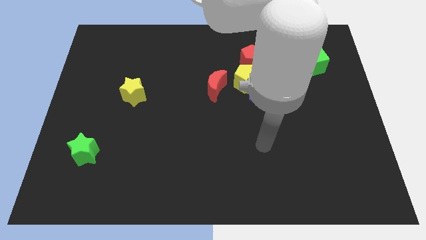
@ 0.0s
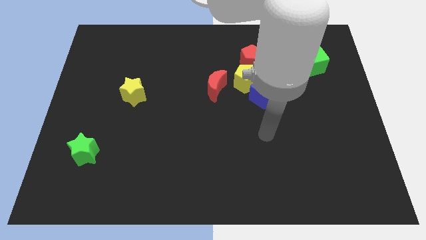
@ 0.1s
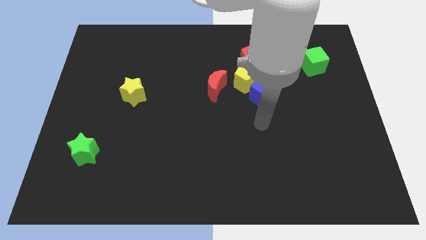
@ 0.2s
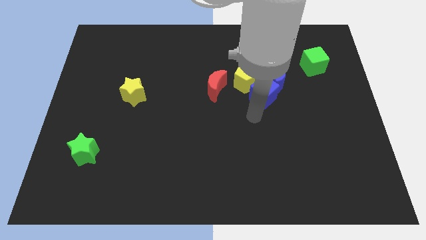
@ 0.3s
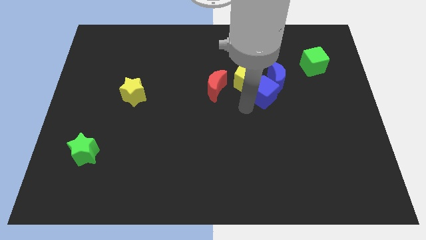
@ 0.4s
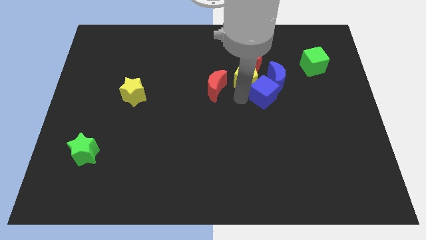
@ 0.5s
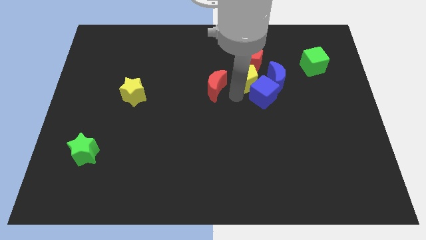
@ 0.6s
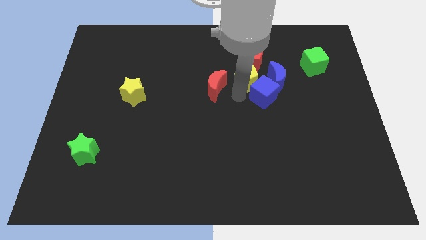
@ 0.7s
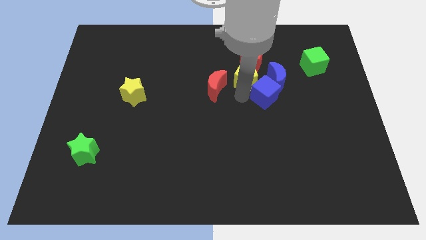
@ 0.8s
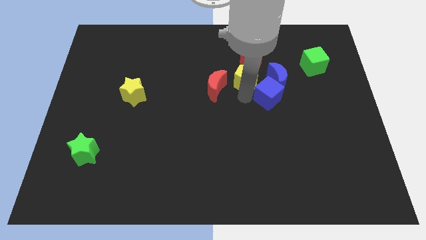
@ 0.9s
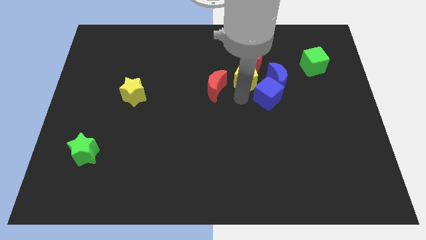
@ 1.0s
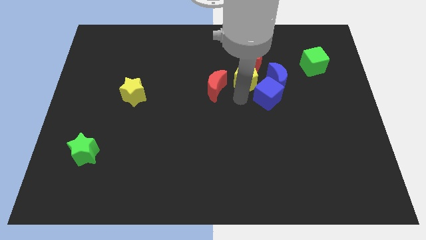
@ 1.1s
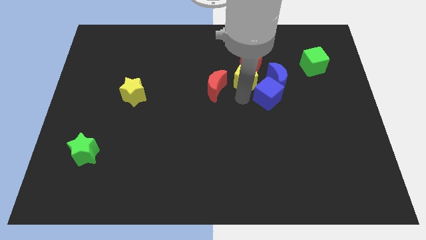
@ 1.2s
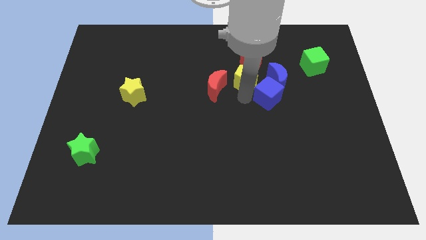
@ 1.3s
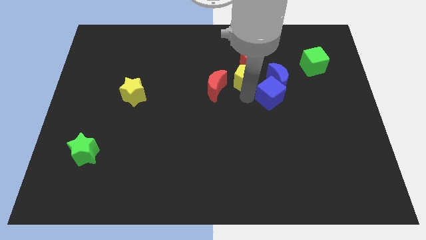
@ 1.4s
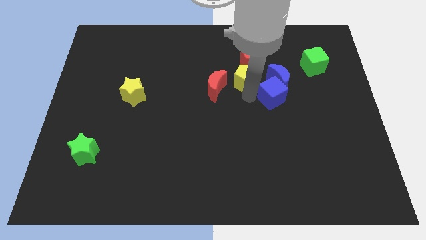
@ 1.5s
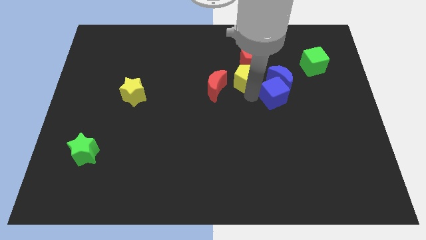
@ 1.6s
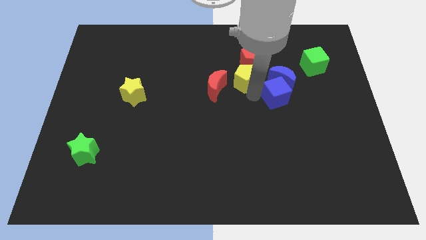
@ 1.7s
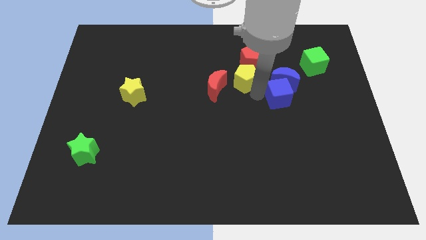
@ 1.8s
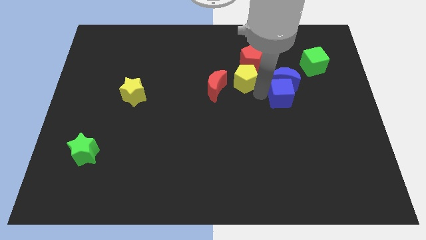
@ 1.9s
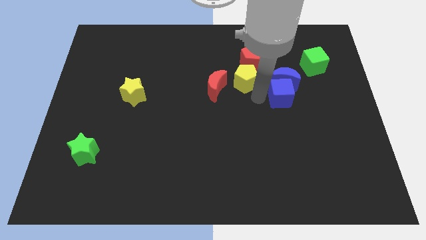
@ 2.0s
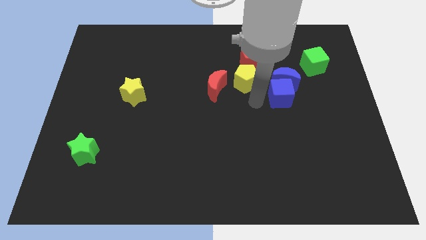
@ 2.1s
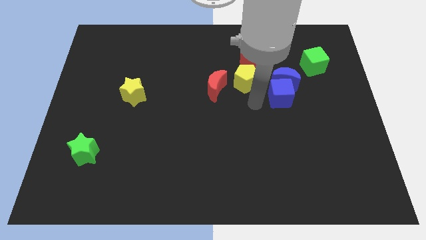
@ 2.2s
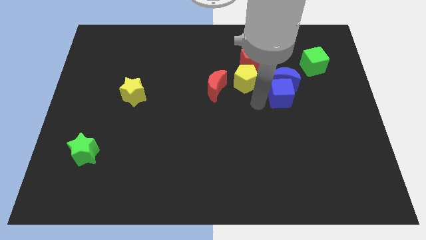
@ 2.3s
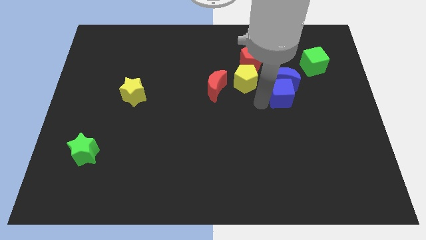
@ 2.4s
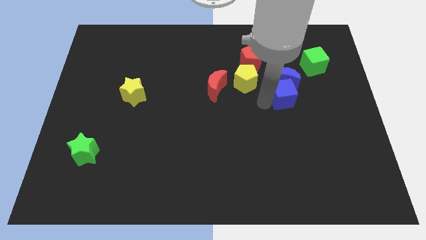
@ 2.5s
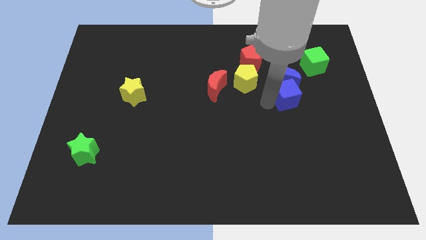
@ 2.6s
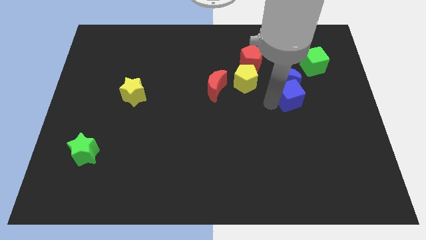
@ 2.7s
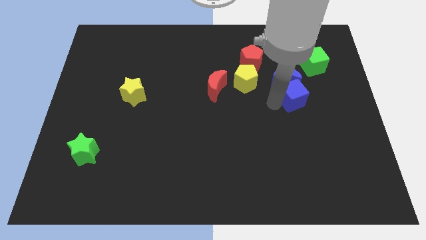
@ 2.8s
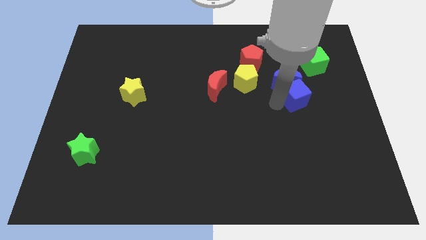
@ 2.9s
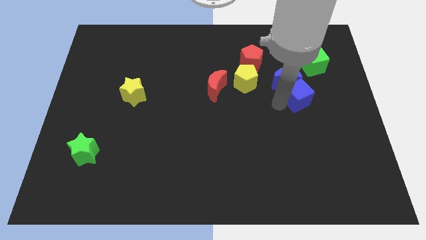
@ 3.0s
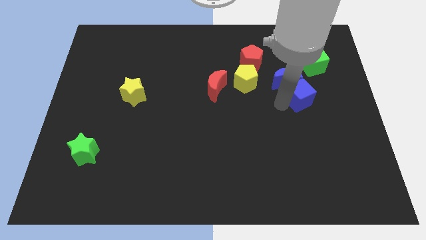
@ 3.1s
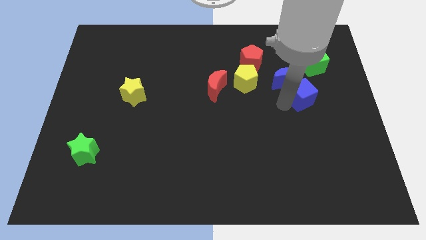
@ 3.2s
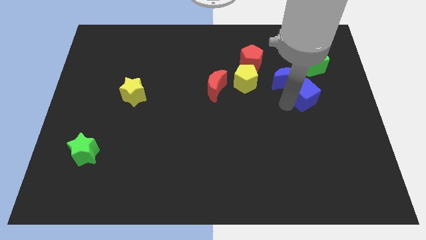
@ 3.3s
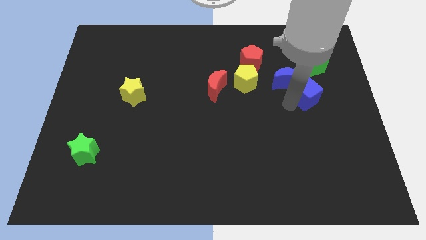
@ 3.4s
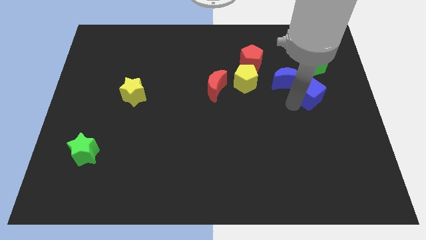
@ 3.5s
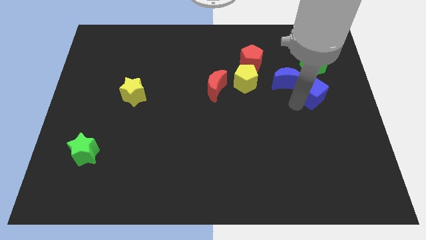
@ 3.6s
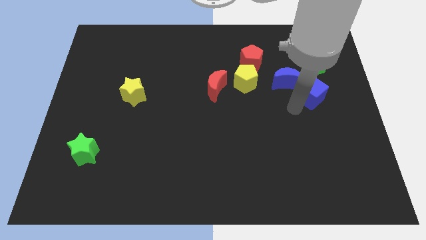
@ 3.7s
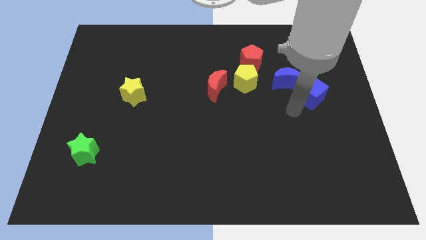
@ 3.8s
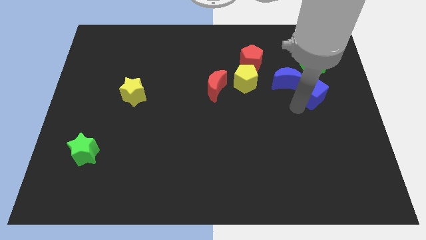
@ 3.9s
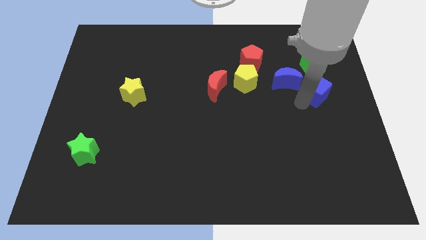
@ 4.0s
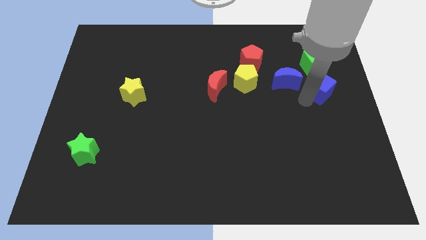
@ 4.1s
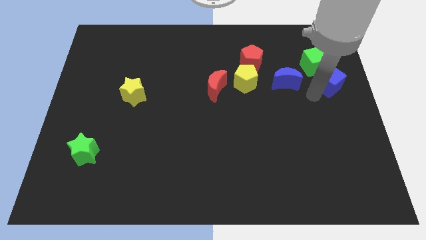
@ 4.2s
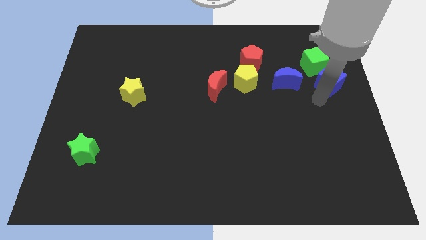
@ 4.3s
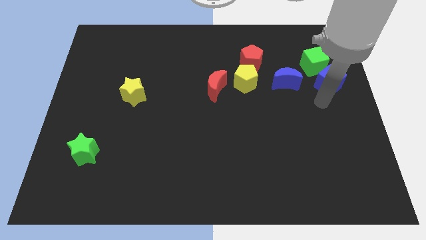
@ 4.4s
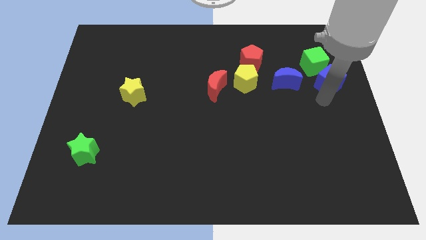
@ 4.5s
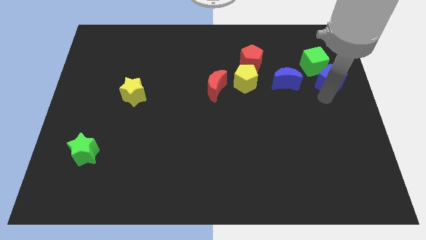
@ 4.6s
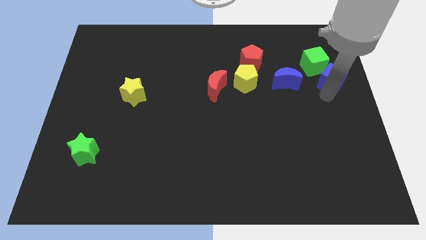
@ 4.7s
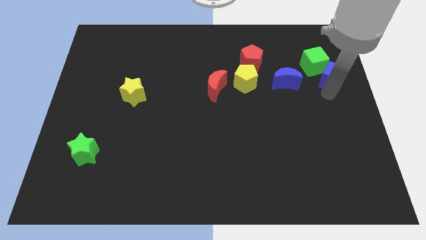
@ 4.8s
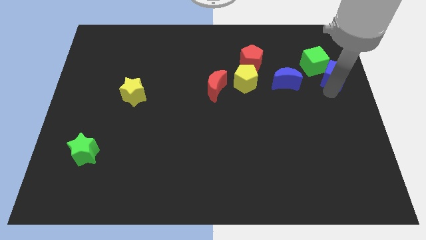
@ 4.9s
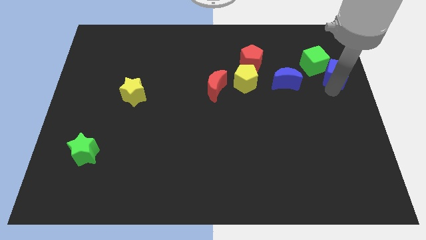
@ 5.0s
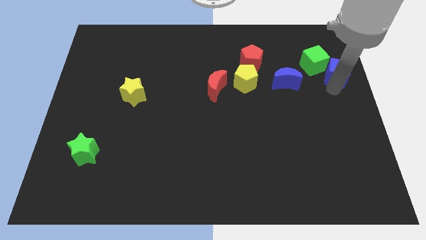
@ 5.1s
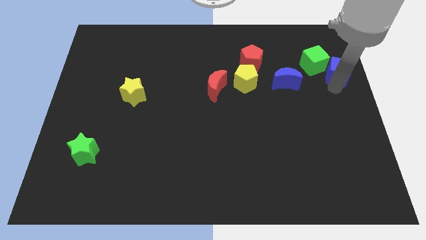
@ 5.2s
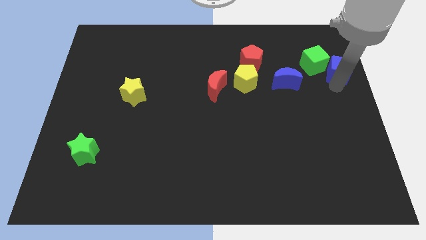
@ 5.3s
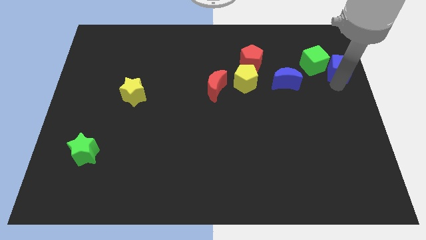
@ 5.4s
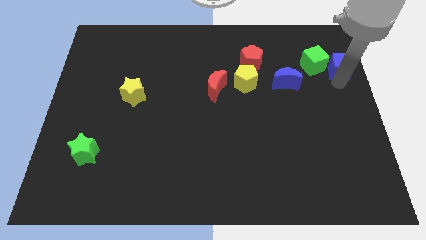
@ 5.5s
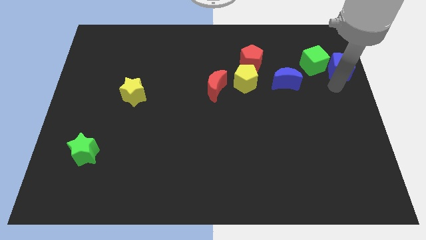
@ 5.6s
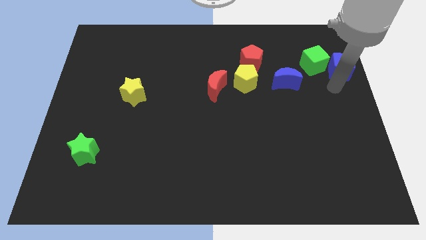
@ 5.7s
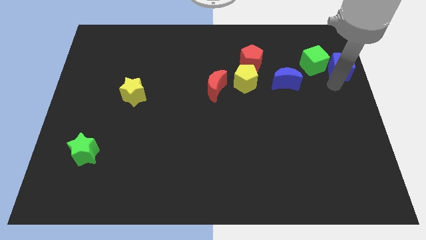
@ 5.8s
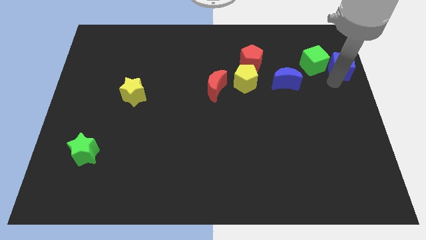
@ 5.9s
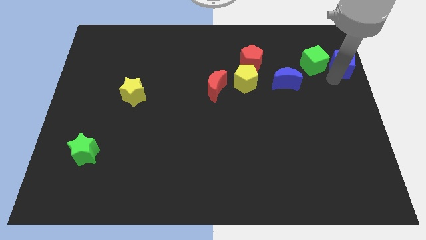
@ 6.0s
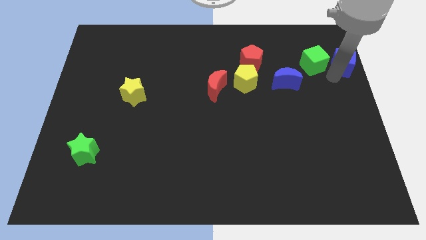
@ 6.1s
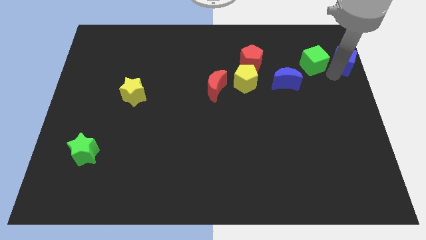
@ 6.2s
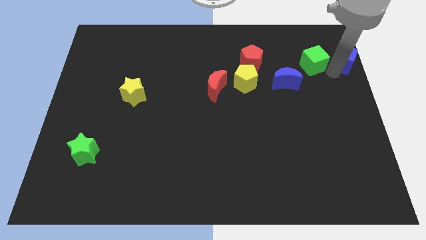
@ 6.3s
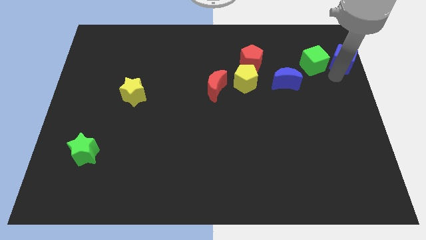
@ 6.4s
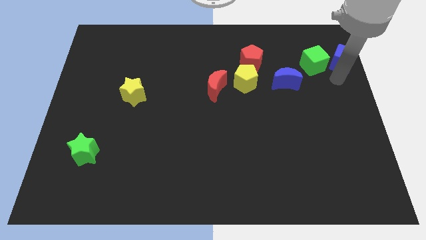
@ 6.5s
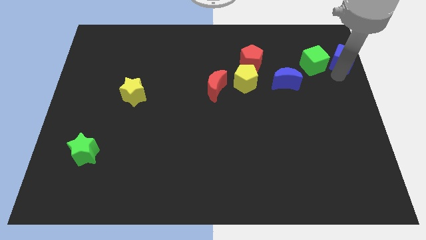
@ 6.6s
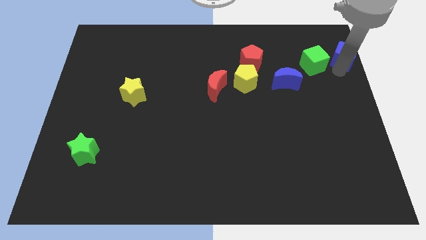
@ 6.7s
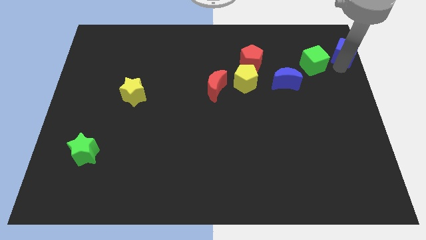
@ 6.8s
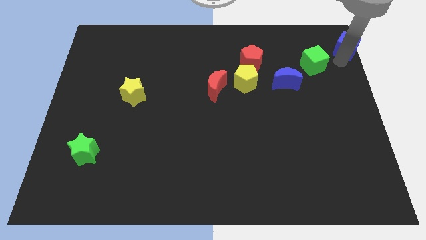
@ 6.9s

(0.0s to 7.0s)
put the blue cube to the top right
